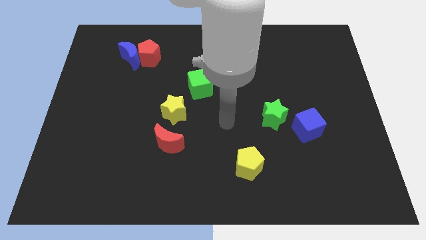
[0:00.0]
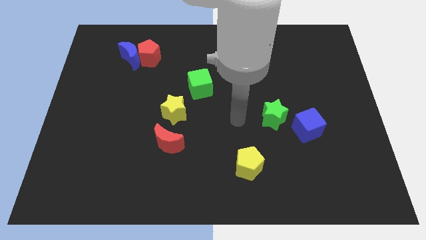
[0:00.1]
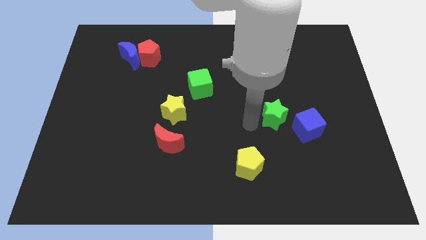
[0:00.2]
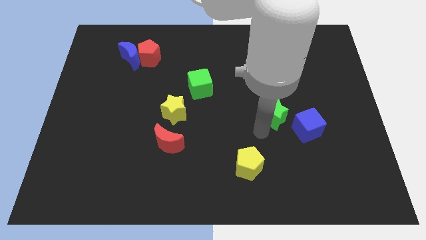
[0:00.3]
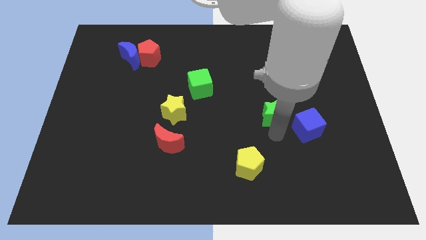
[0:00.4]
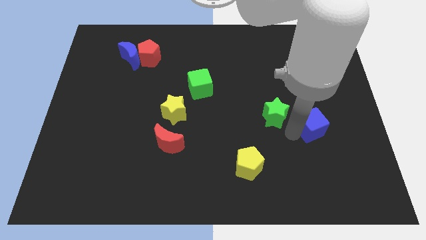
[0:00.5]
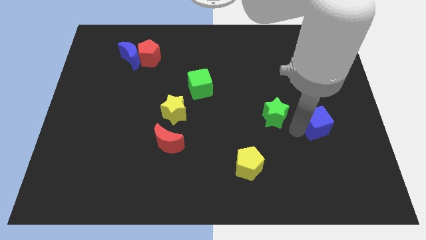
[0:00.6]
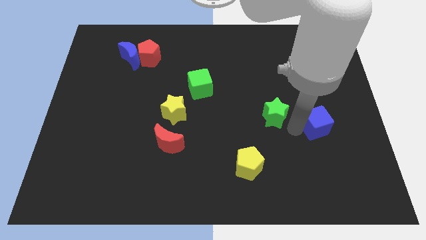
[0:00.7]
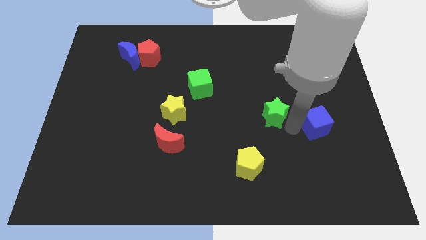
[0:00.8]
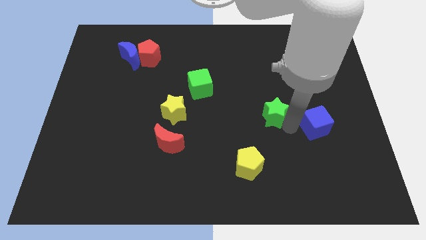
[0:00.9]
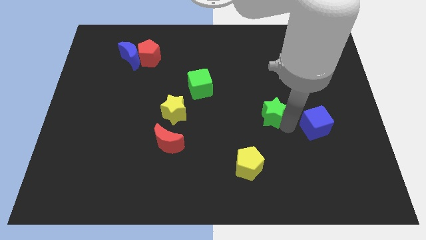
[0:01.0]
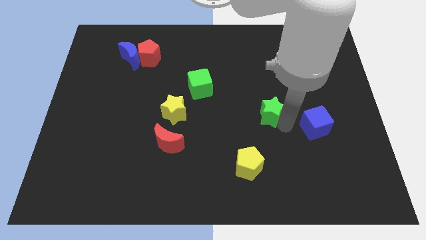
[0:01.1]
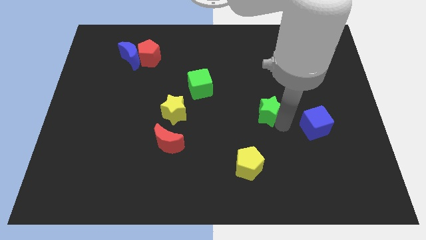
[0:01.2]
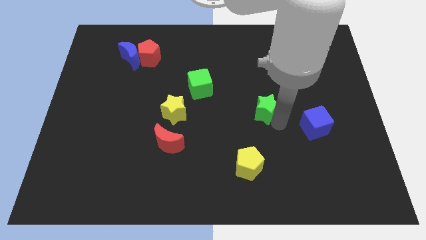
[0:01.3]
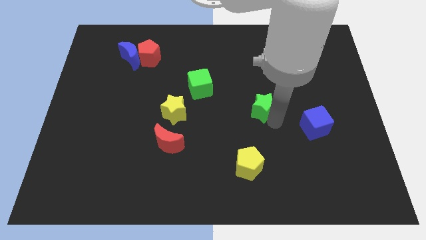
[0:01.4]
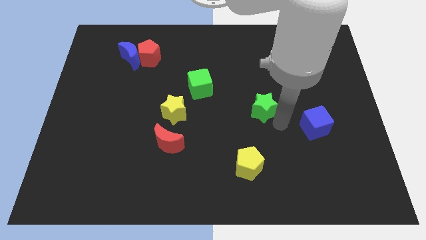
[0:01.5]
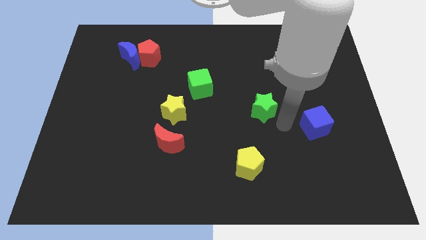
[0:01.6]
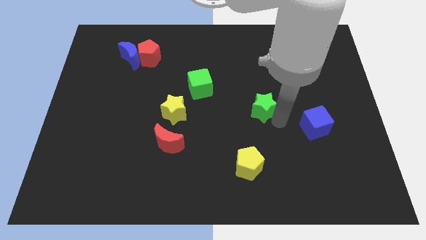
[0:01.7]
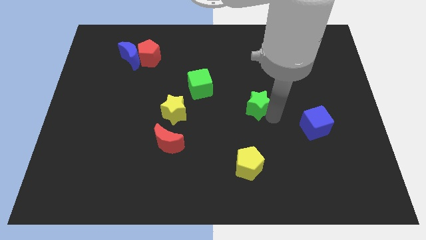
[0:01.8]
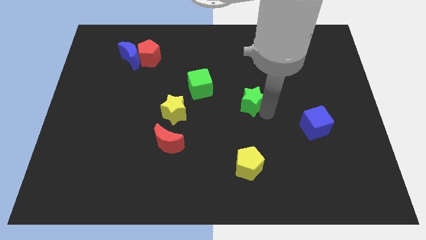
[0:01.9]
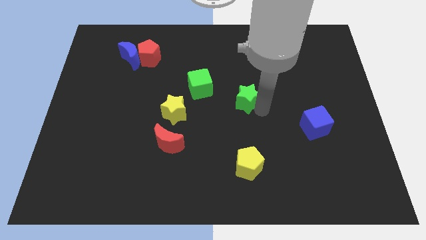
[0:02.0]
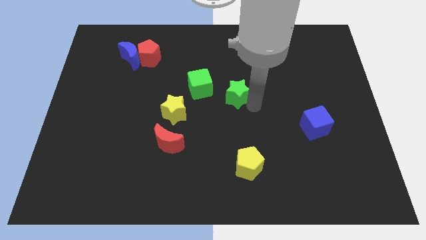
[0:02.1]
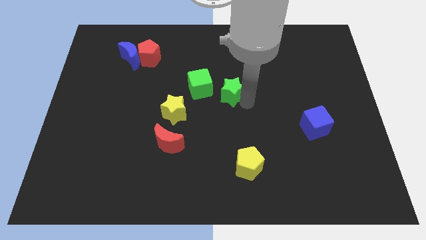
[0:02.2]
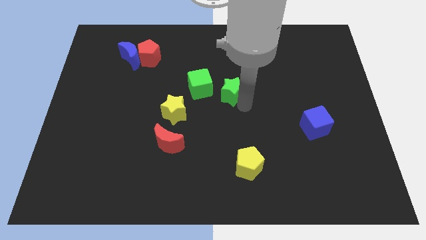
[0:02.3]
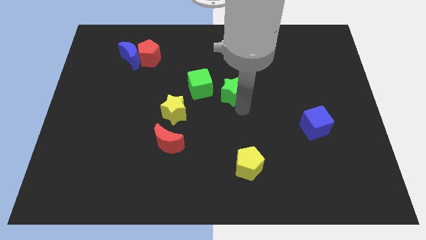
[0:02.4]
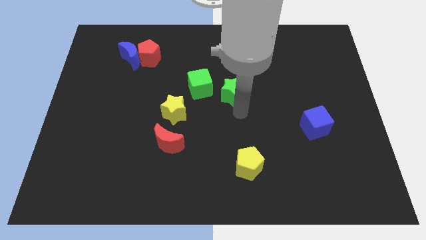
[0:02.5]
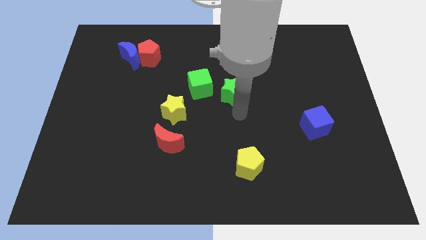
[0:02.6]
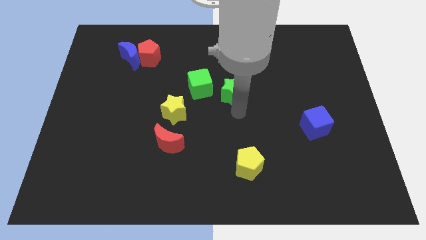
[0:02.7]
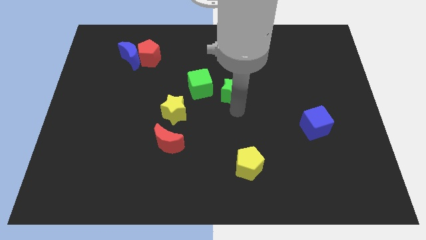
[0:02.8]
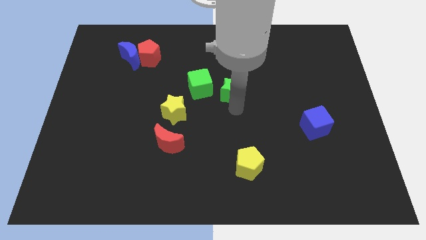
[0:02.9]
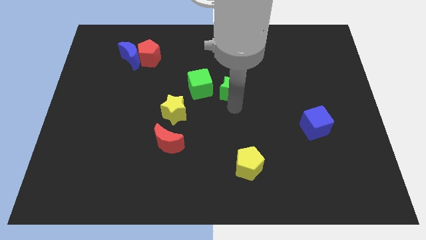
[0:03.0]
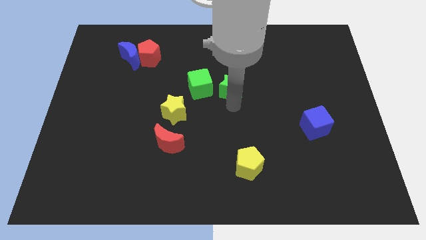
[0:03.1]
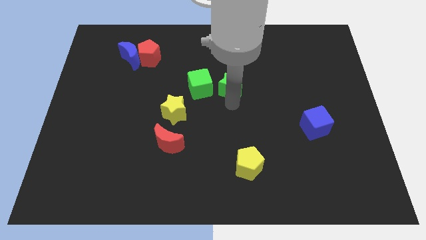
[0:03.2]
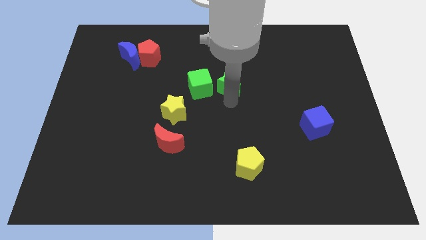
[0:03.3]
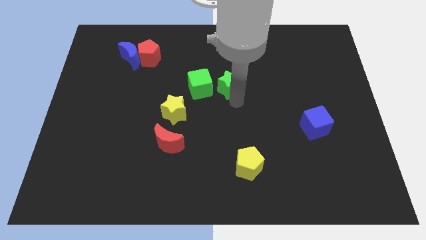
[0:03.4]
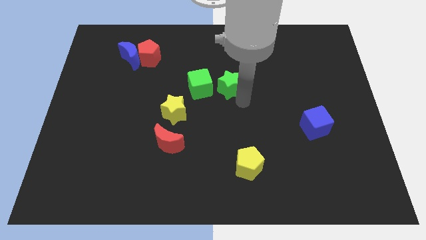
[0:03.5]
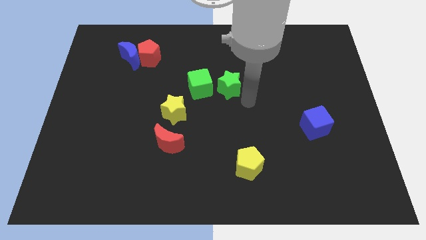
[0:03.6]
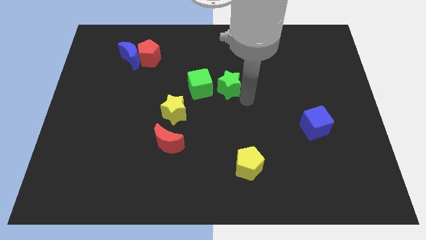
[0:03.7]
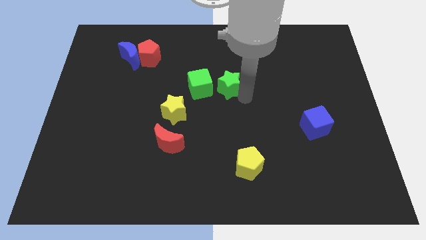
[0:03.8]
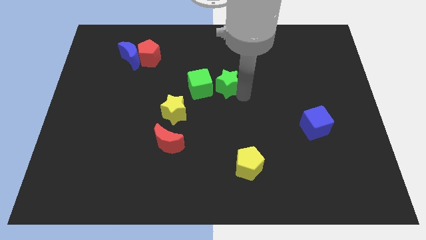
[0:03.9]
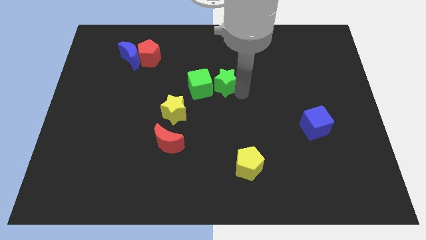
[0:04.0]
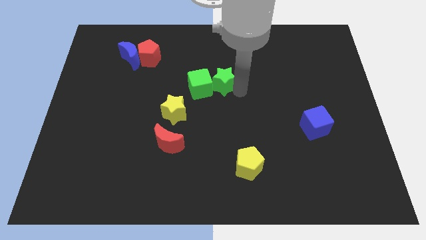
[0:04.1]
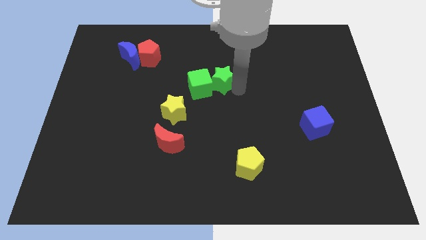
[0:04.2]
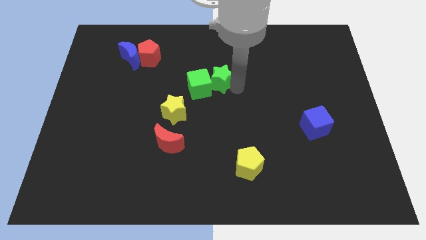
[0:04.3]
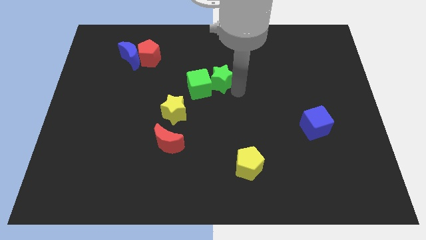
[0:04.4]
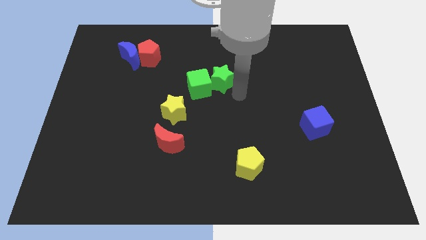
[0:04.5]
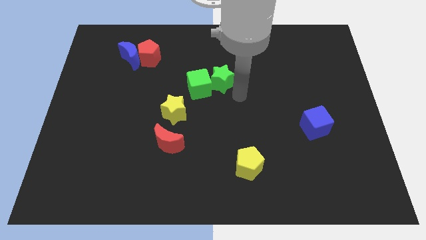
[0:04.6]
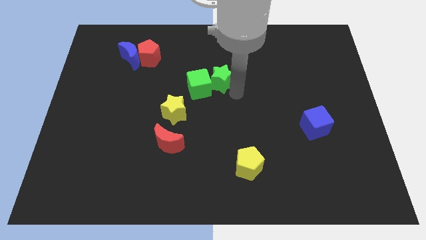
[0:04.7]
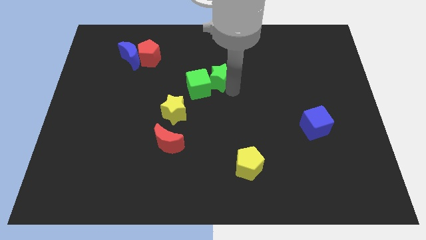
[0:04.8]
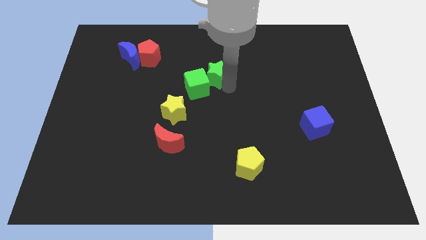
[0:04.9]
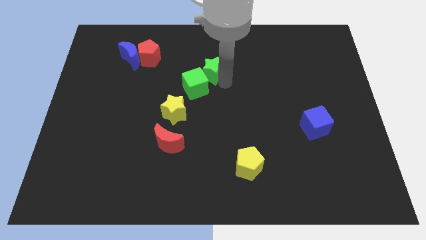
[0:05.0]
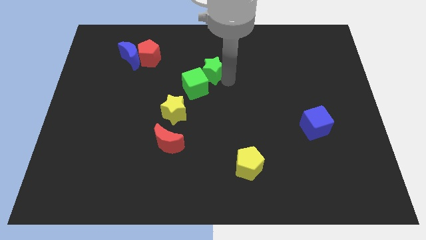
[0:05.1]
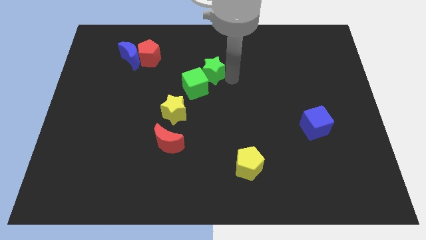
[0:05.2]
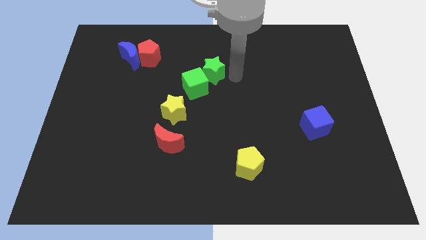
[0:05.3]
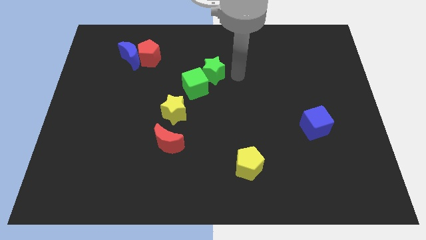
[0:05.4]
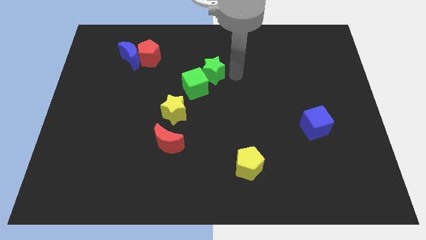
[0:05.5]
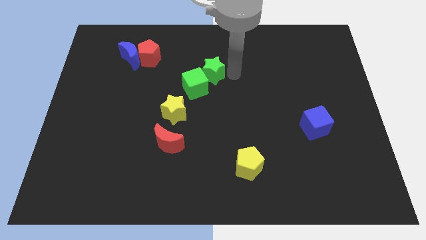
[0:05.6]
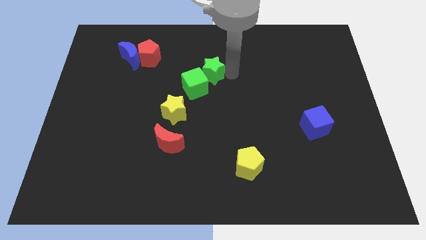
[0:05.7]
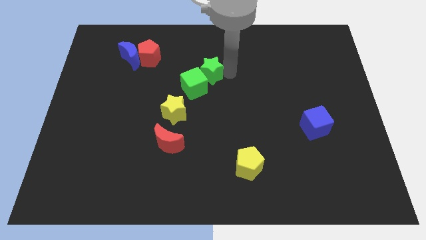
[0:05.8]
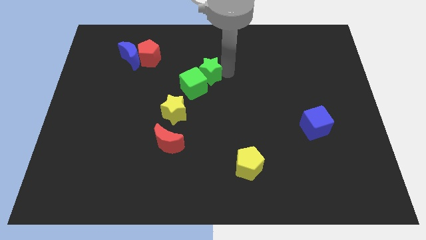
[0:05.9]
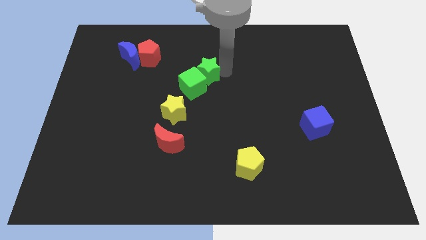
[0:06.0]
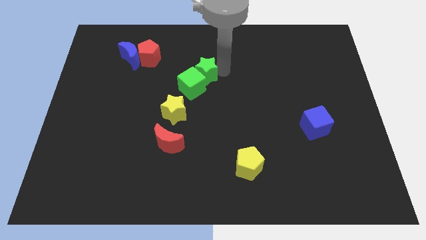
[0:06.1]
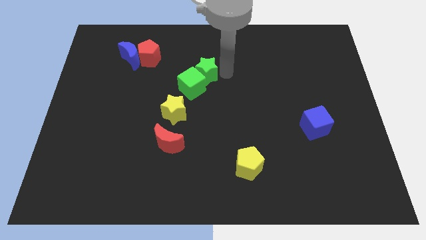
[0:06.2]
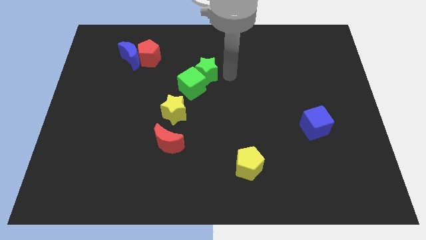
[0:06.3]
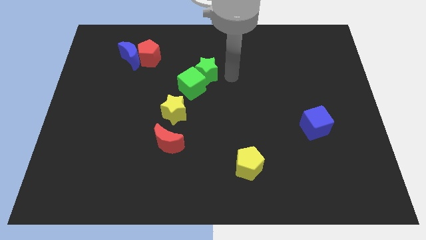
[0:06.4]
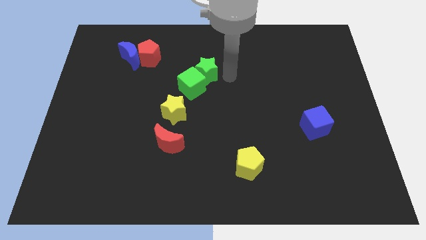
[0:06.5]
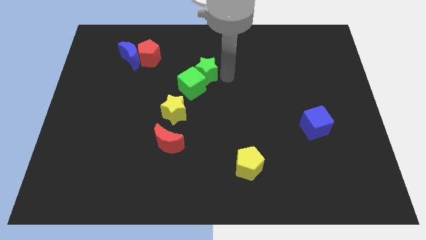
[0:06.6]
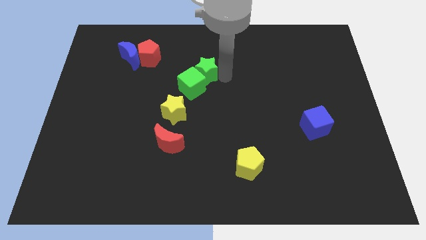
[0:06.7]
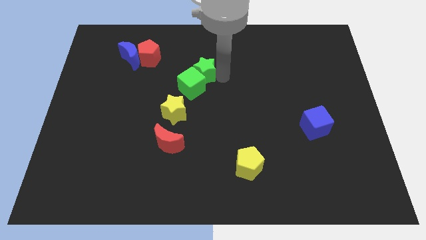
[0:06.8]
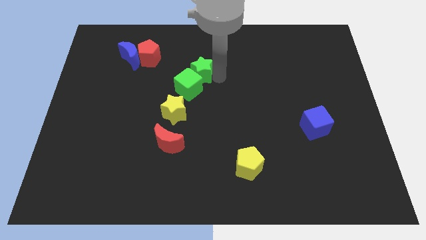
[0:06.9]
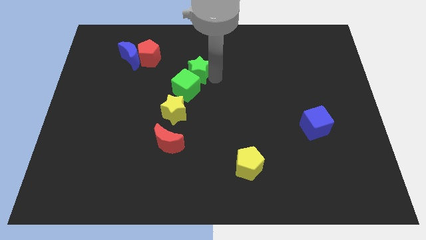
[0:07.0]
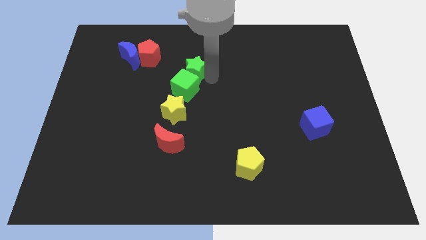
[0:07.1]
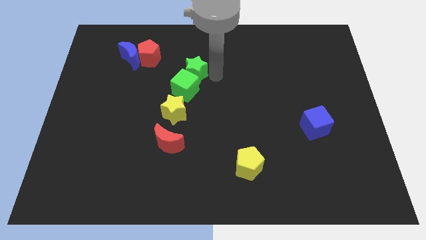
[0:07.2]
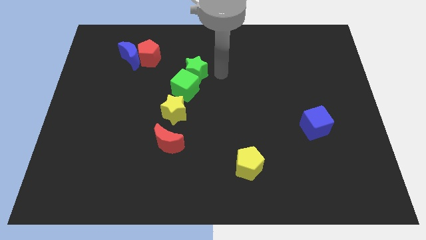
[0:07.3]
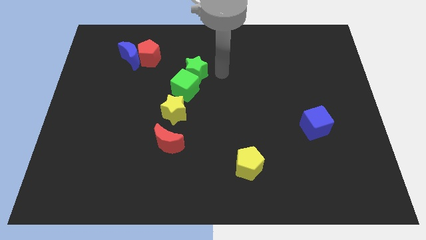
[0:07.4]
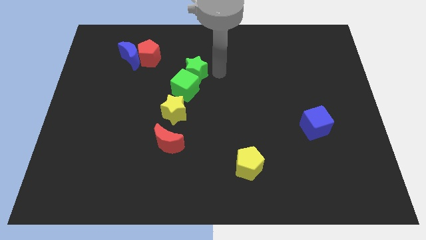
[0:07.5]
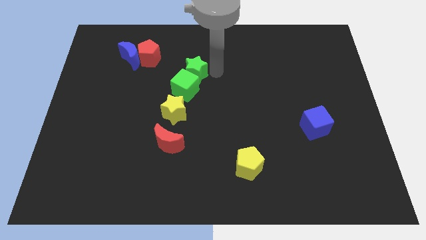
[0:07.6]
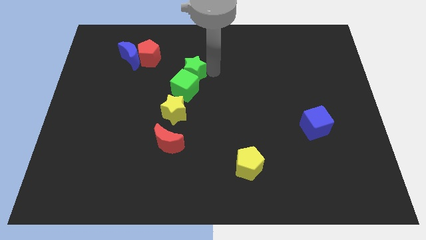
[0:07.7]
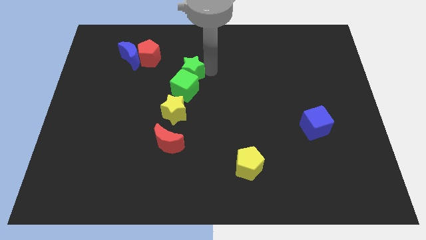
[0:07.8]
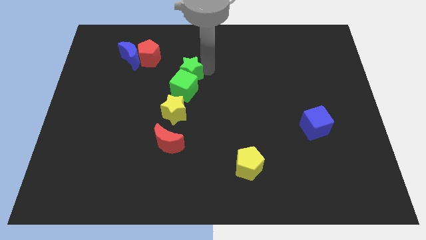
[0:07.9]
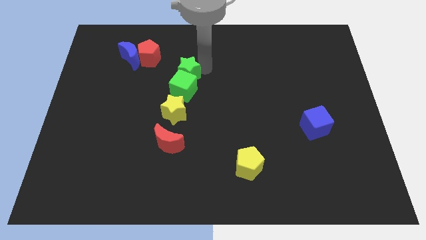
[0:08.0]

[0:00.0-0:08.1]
move the green star to the bottom right side of the red pentagon
